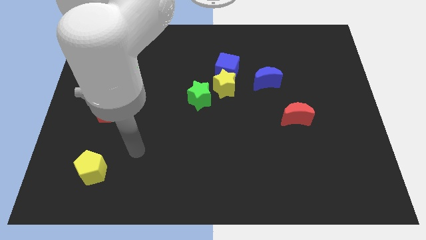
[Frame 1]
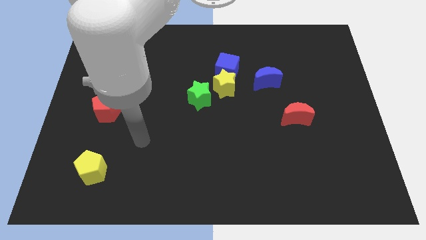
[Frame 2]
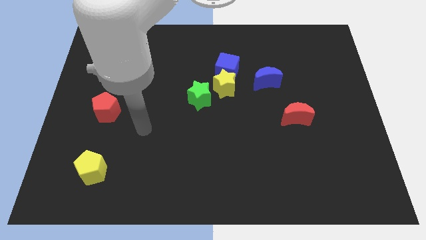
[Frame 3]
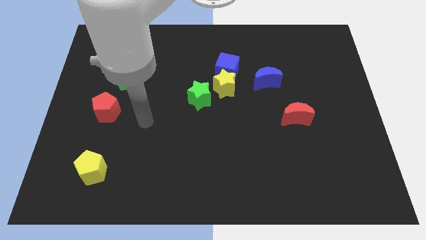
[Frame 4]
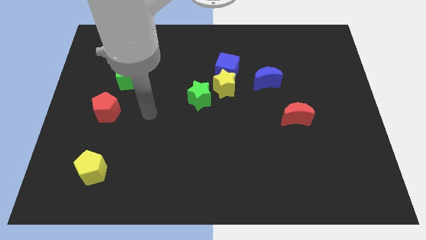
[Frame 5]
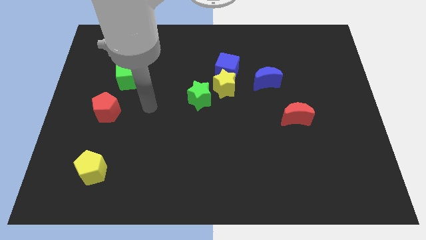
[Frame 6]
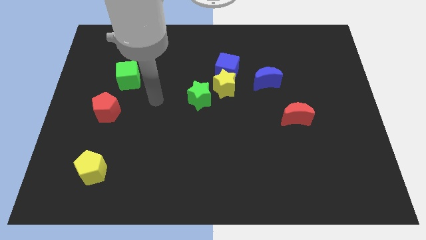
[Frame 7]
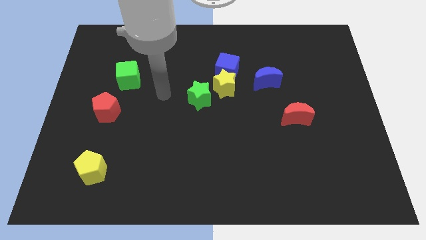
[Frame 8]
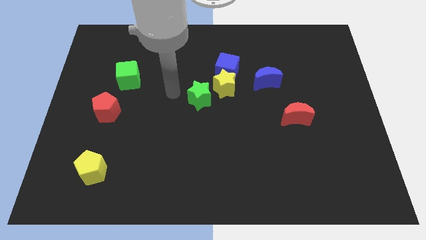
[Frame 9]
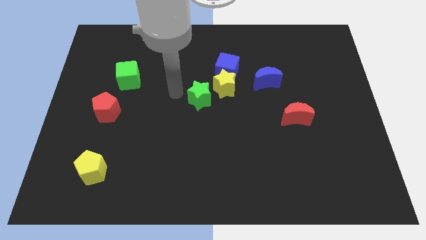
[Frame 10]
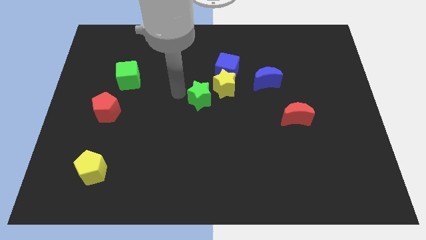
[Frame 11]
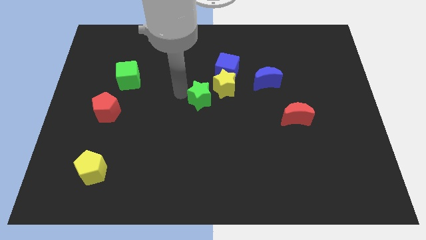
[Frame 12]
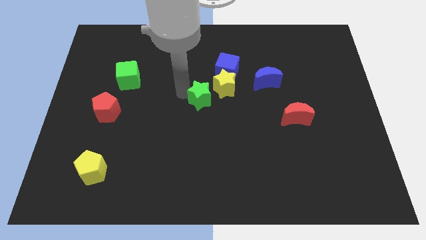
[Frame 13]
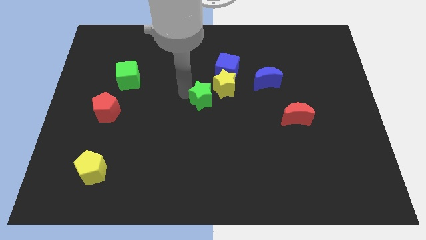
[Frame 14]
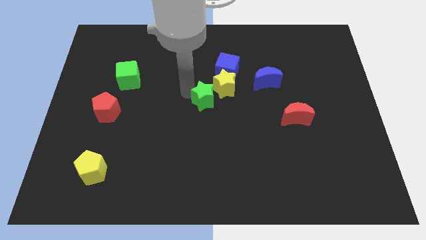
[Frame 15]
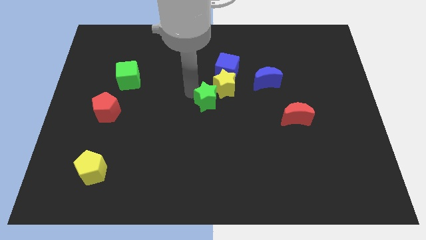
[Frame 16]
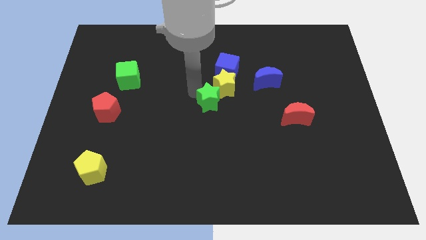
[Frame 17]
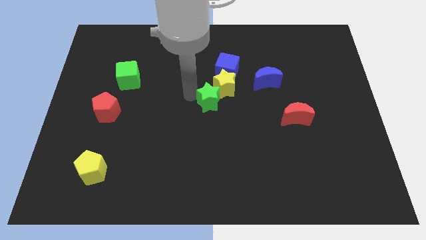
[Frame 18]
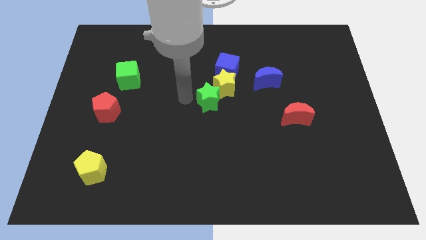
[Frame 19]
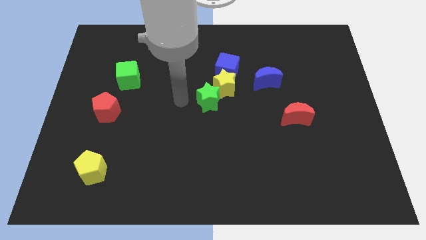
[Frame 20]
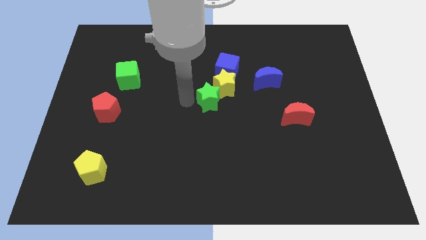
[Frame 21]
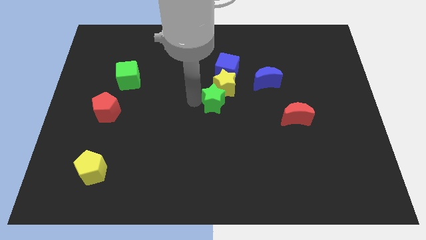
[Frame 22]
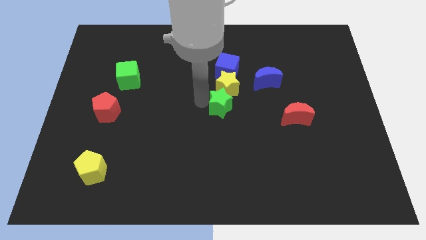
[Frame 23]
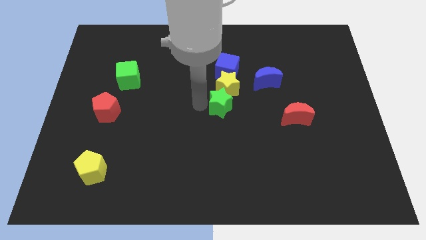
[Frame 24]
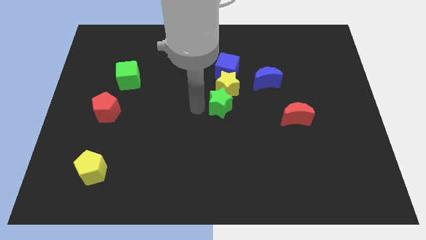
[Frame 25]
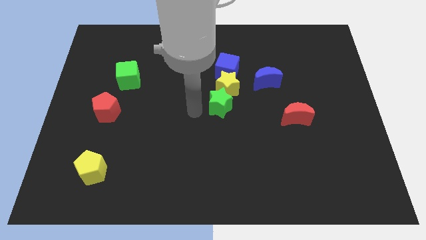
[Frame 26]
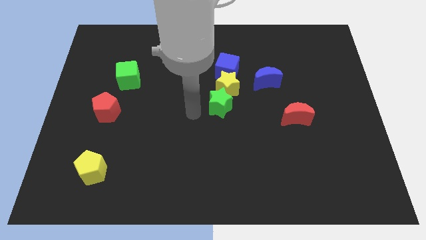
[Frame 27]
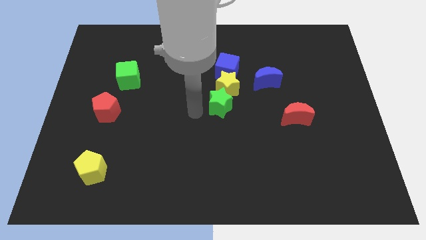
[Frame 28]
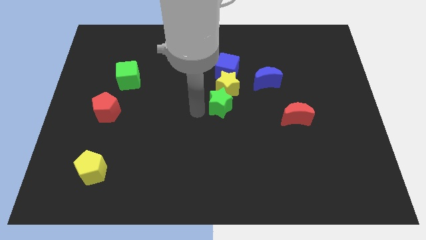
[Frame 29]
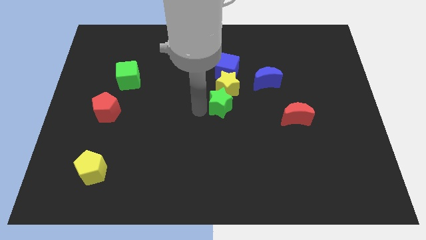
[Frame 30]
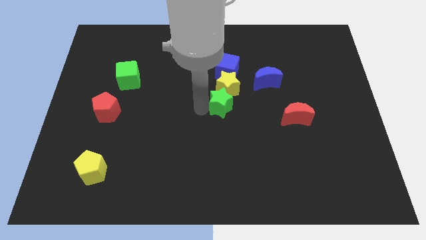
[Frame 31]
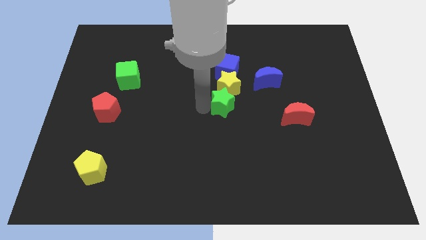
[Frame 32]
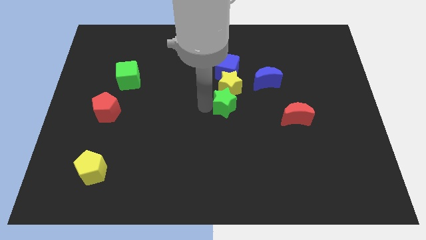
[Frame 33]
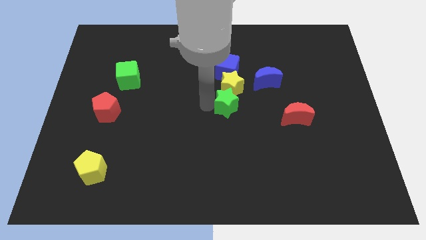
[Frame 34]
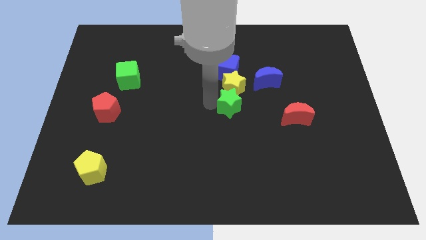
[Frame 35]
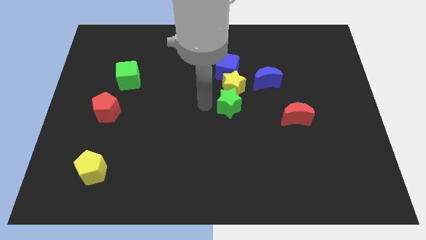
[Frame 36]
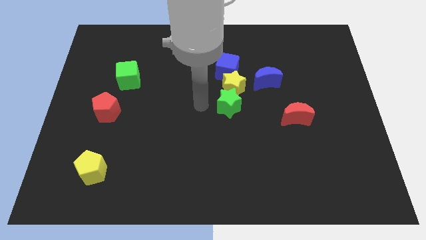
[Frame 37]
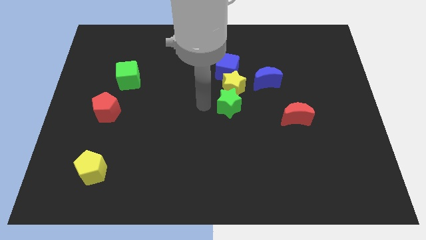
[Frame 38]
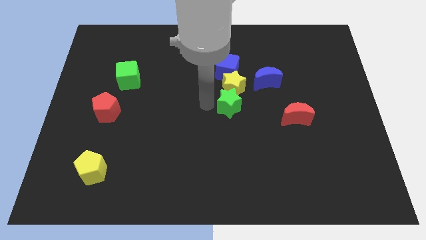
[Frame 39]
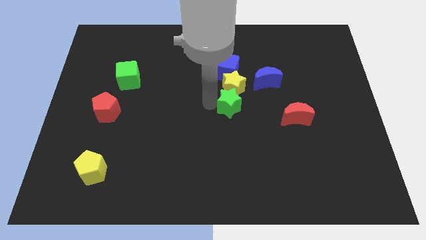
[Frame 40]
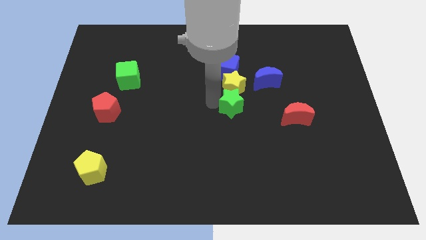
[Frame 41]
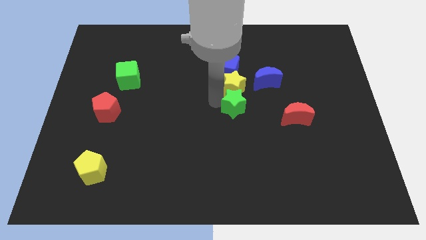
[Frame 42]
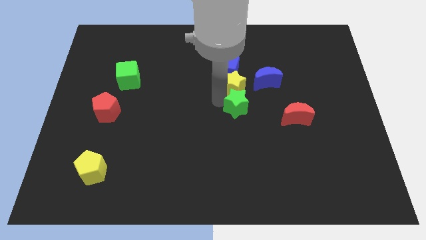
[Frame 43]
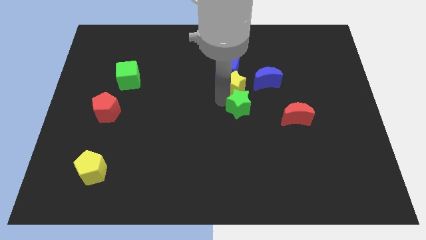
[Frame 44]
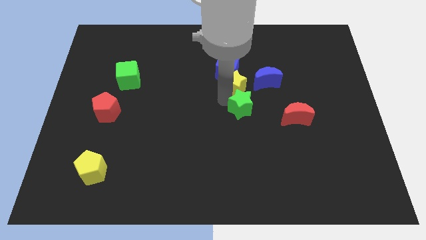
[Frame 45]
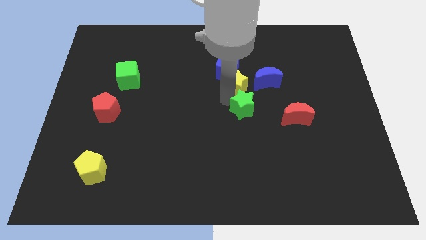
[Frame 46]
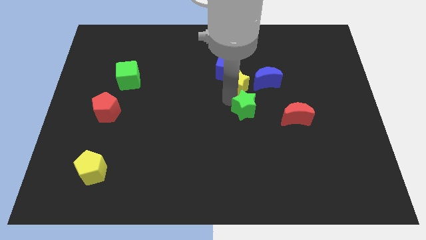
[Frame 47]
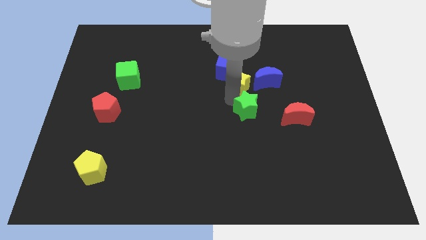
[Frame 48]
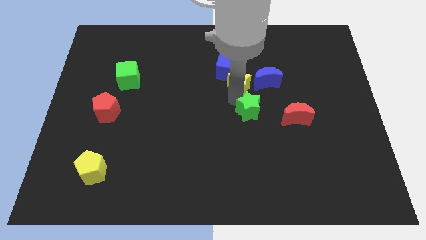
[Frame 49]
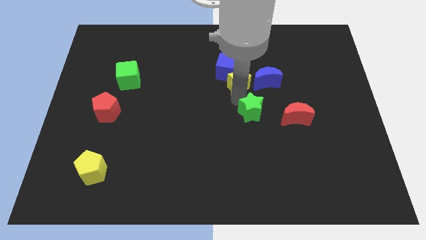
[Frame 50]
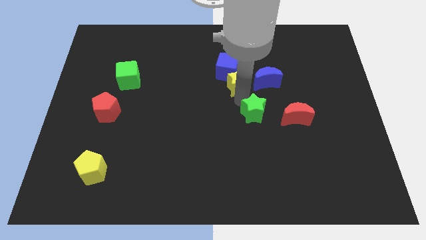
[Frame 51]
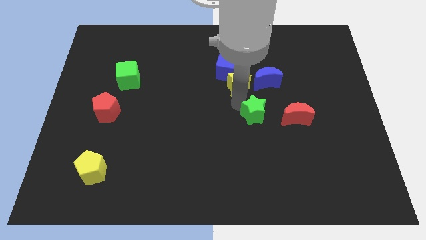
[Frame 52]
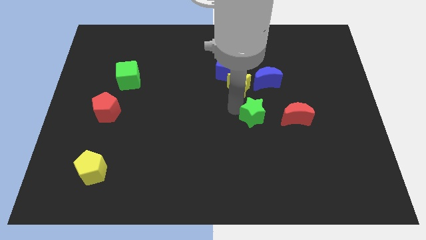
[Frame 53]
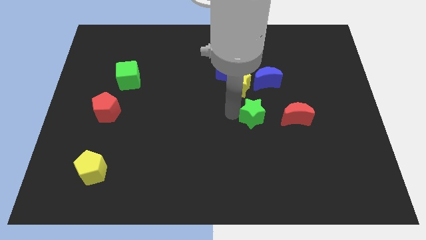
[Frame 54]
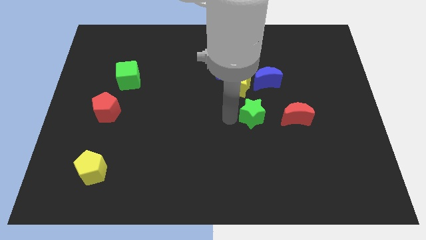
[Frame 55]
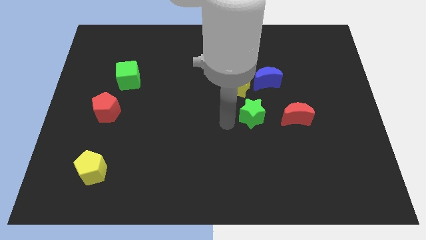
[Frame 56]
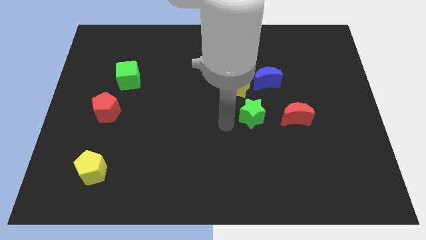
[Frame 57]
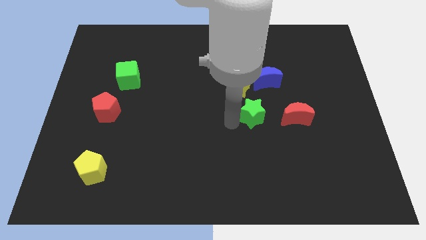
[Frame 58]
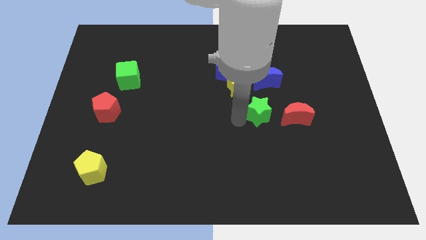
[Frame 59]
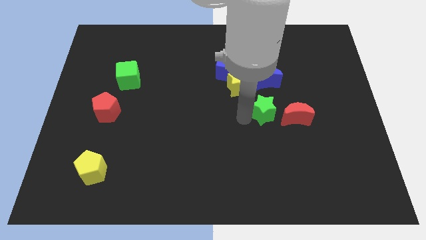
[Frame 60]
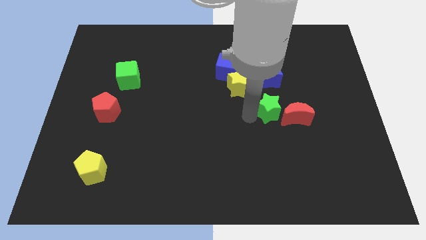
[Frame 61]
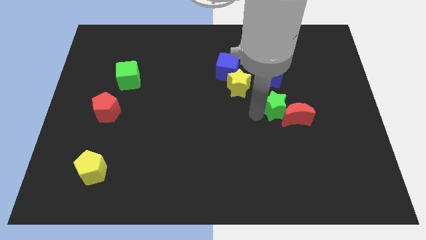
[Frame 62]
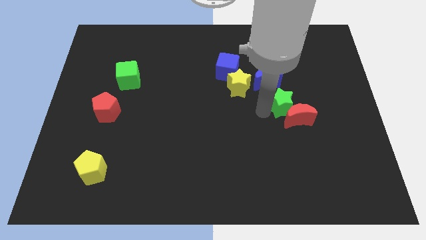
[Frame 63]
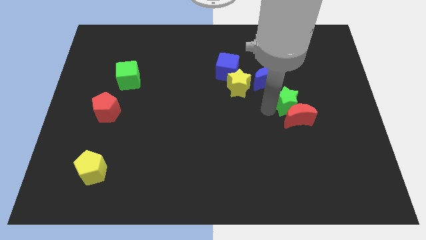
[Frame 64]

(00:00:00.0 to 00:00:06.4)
move the green star to the right

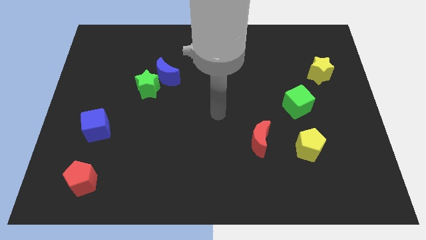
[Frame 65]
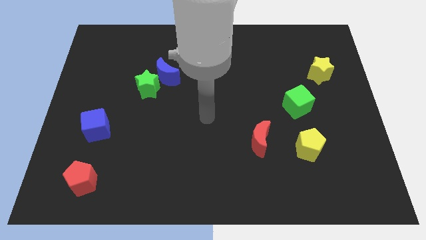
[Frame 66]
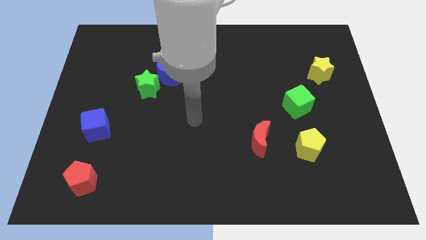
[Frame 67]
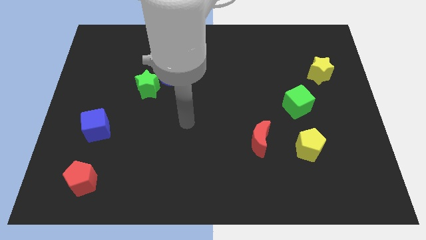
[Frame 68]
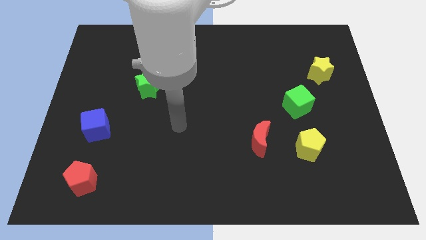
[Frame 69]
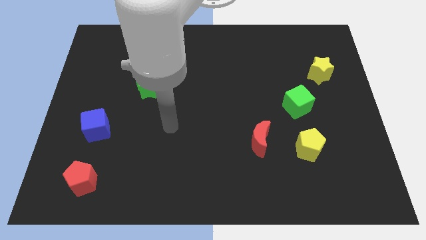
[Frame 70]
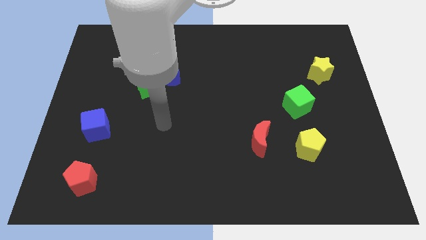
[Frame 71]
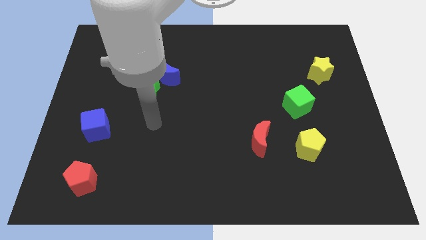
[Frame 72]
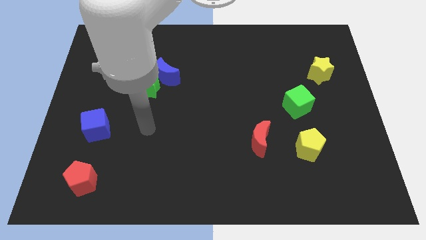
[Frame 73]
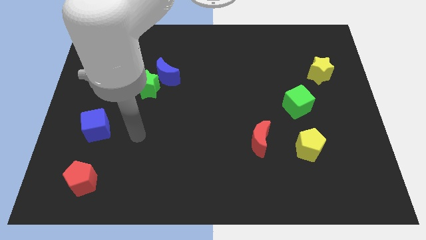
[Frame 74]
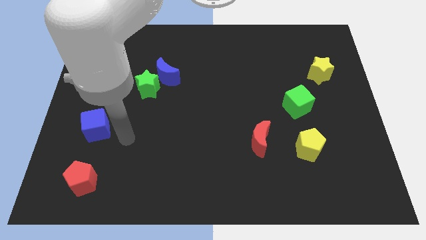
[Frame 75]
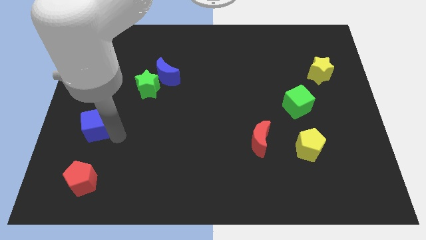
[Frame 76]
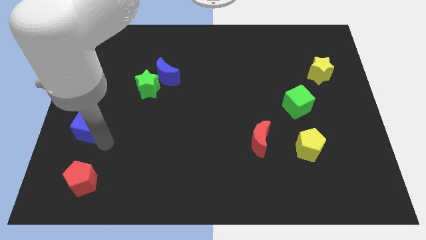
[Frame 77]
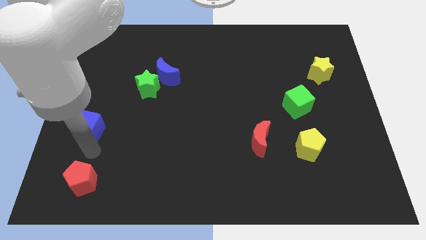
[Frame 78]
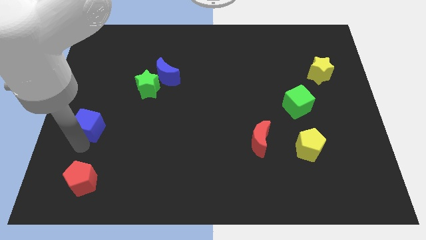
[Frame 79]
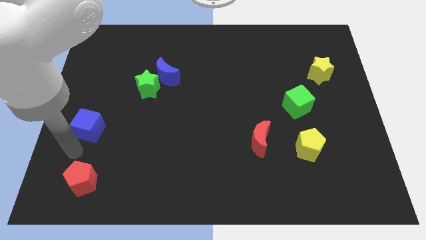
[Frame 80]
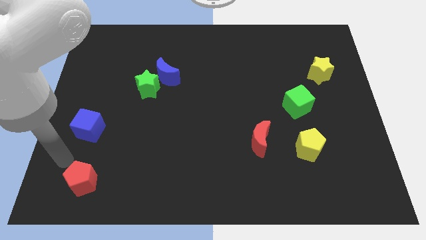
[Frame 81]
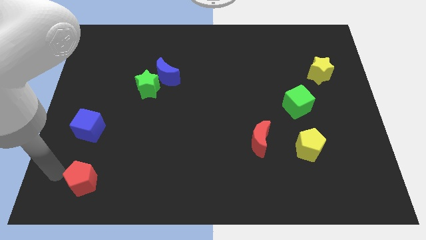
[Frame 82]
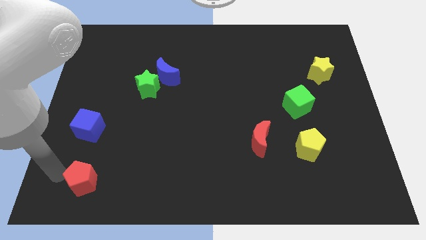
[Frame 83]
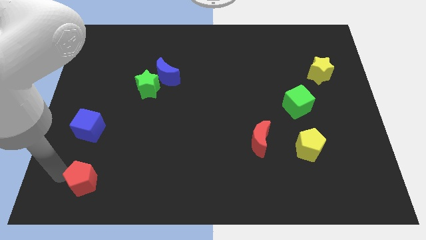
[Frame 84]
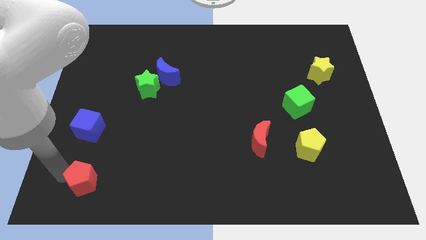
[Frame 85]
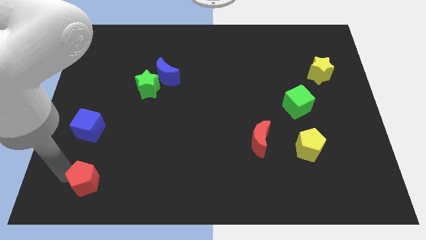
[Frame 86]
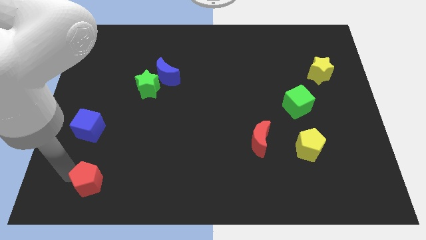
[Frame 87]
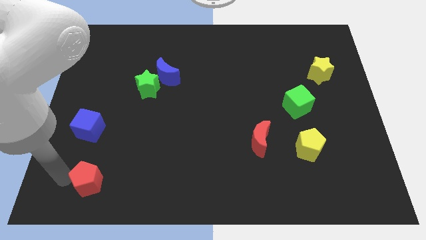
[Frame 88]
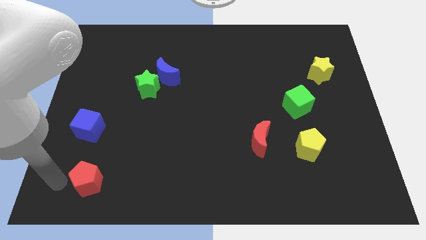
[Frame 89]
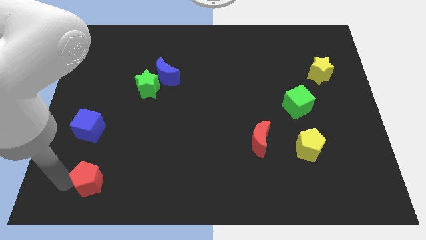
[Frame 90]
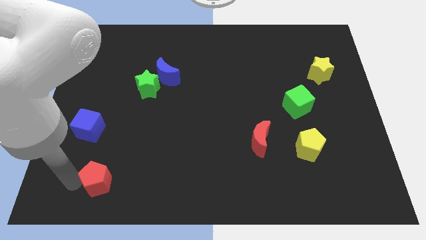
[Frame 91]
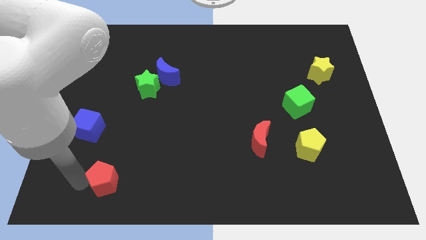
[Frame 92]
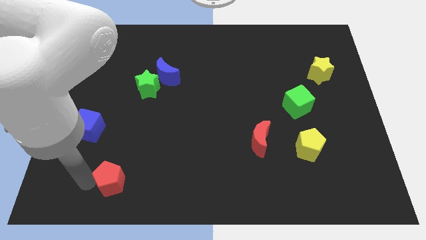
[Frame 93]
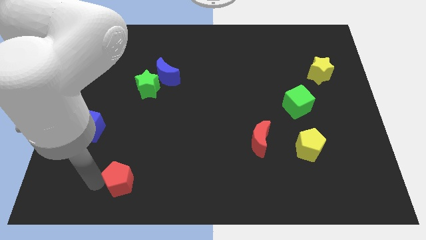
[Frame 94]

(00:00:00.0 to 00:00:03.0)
push the red pentagon a little right
